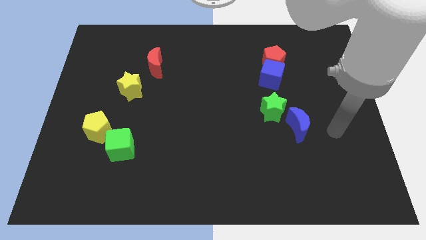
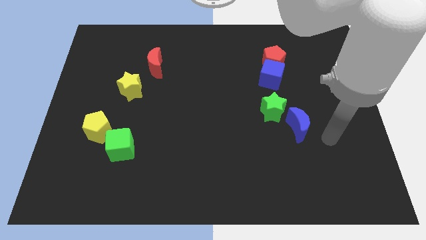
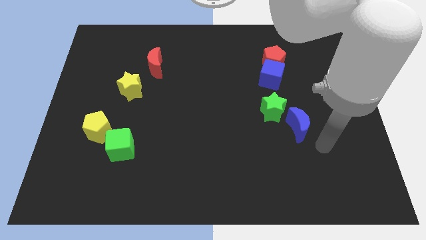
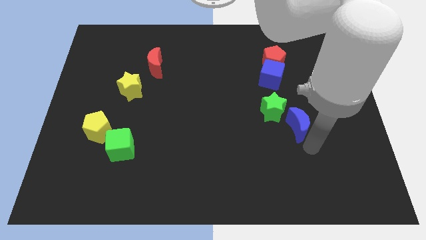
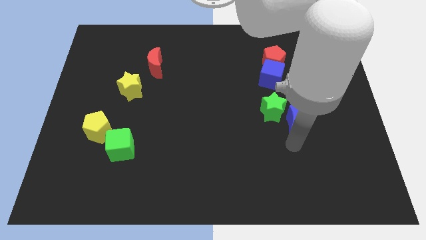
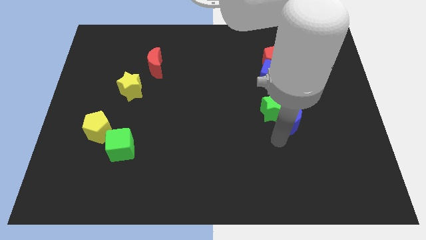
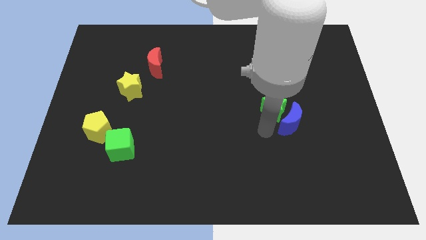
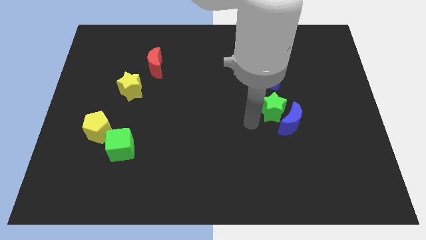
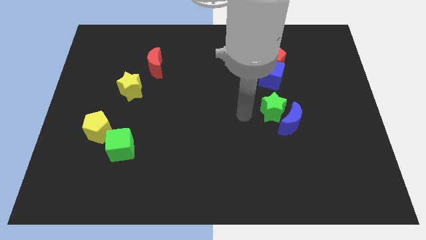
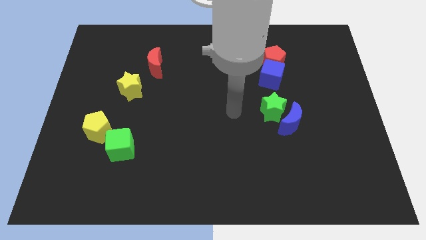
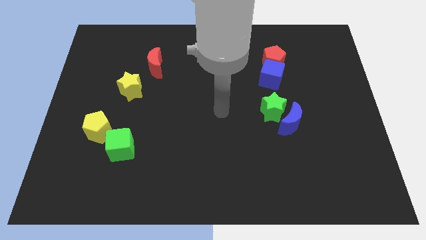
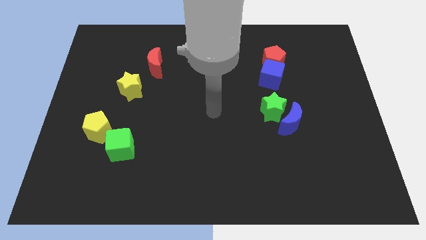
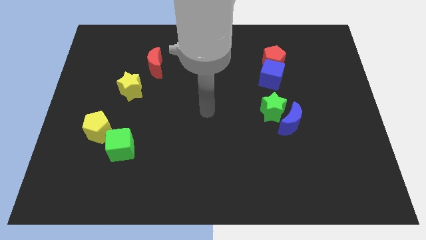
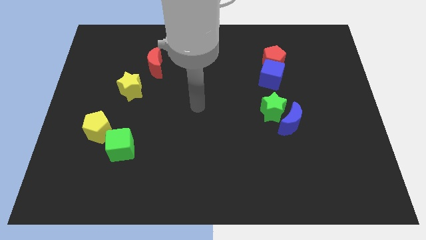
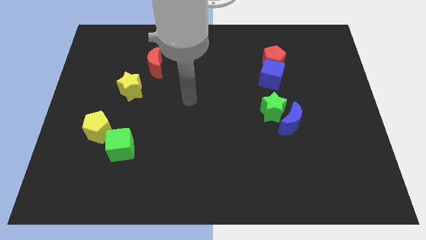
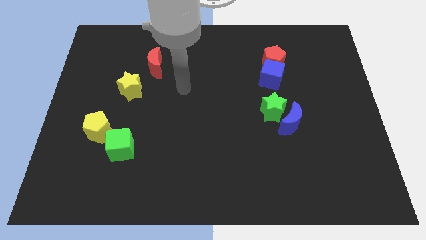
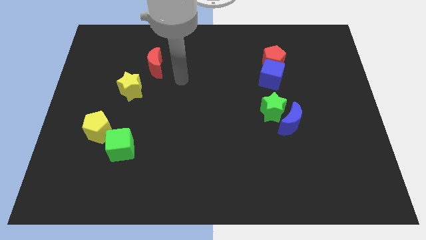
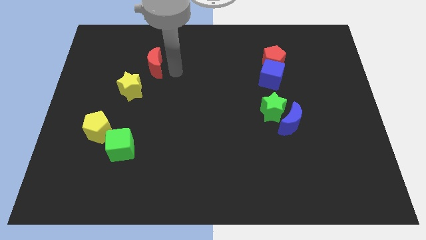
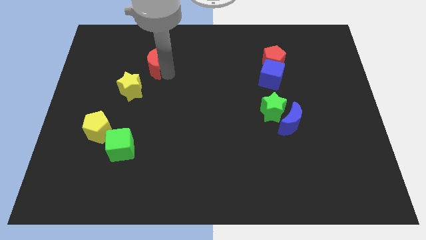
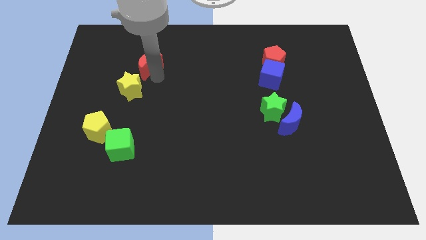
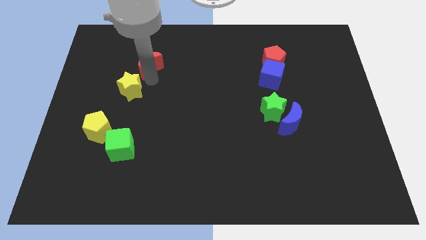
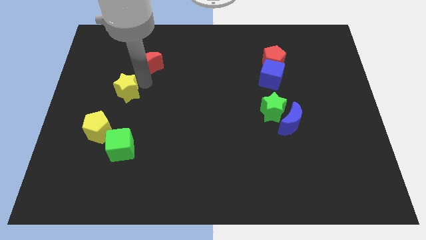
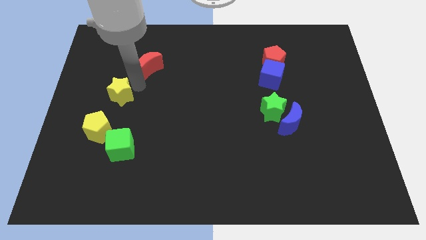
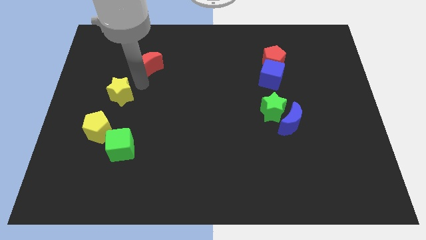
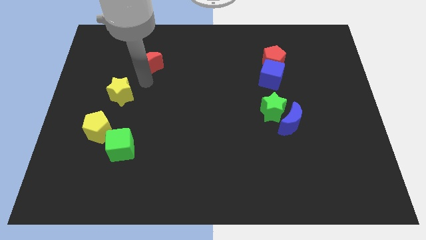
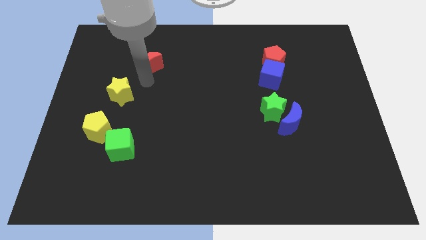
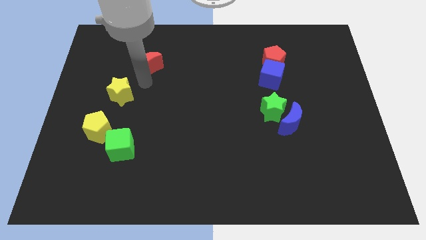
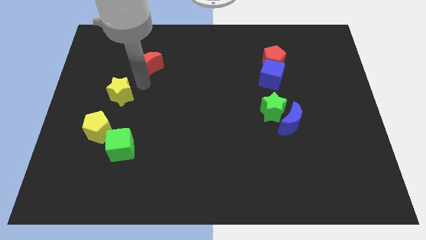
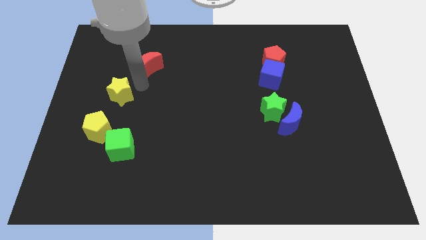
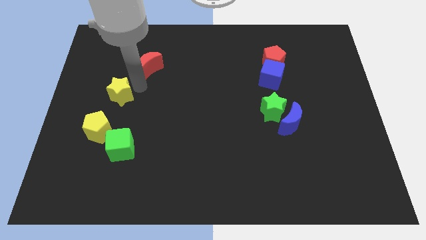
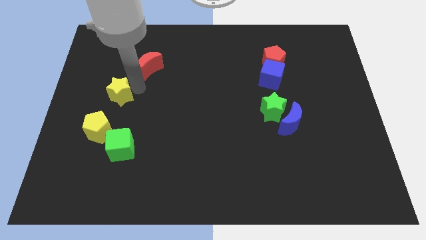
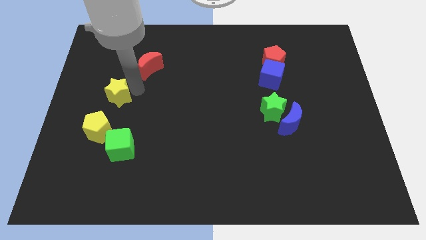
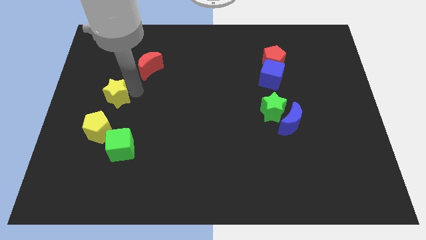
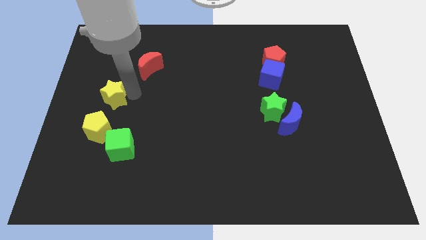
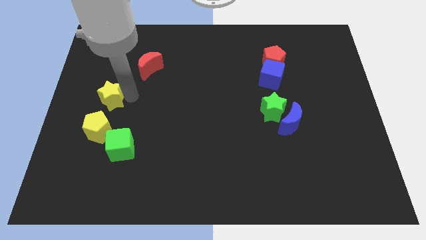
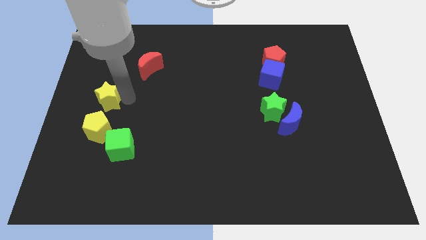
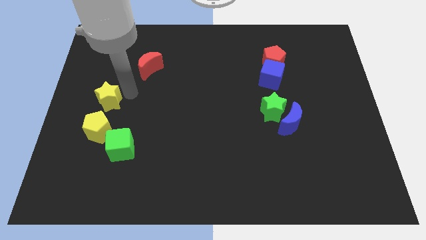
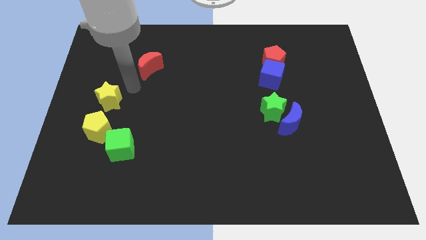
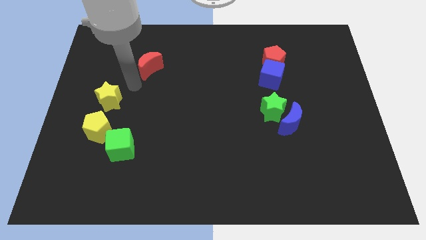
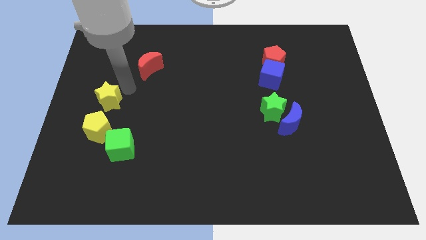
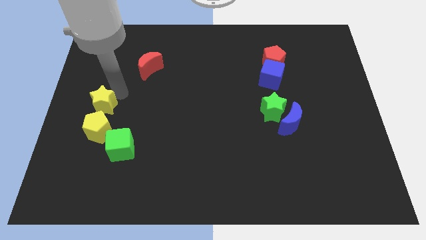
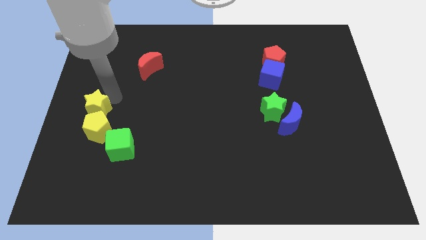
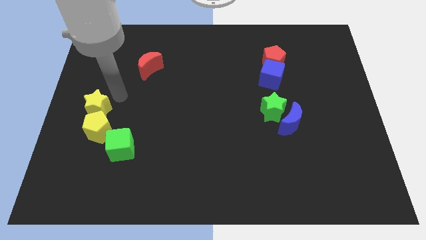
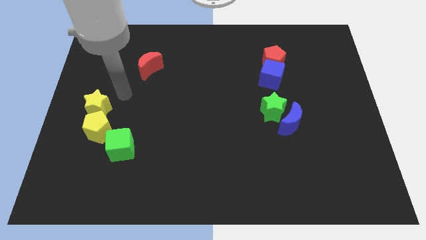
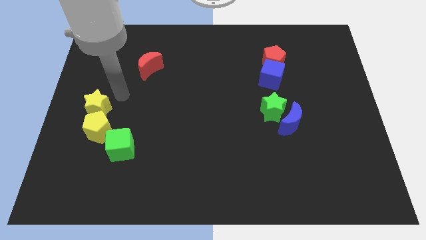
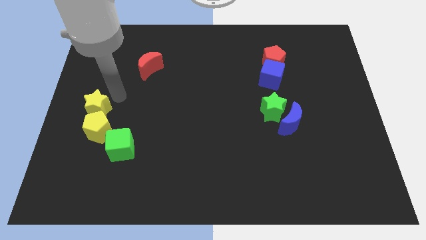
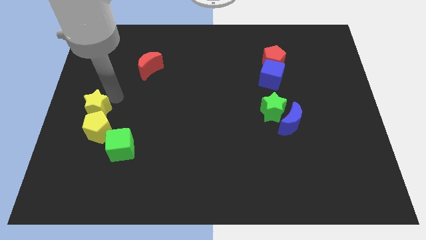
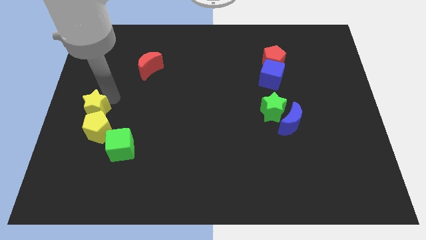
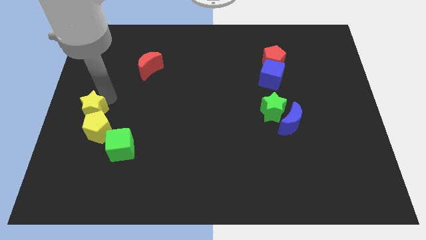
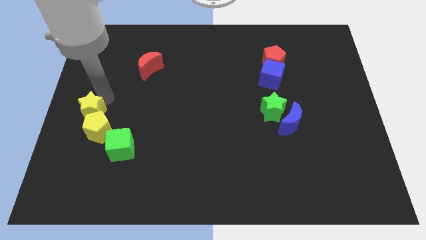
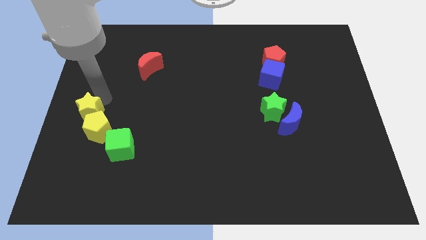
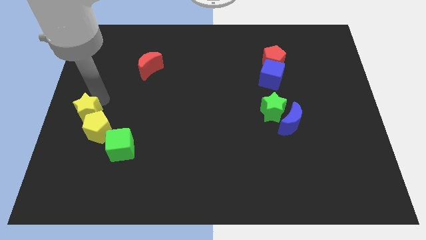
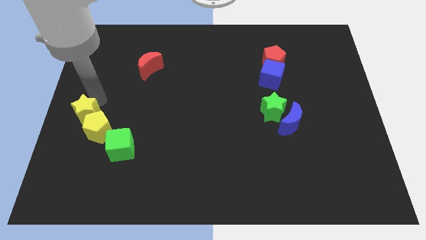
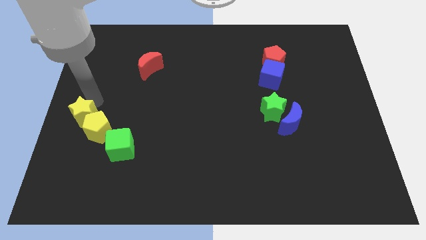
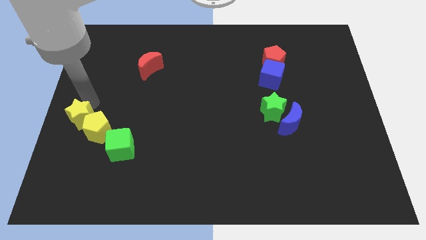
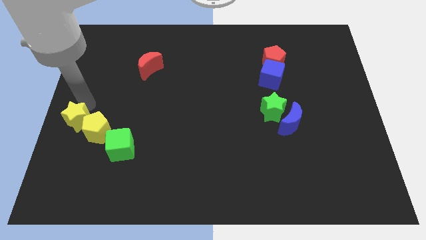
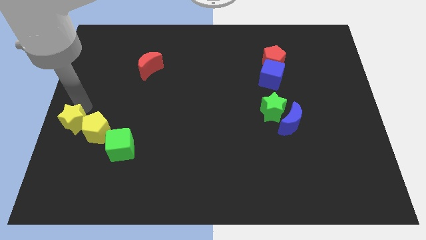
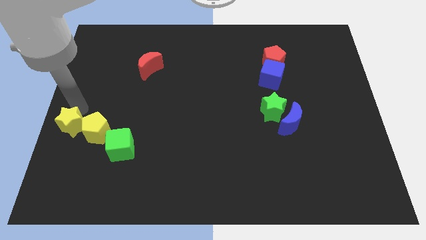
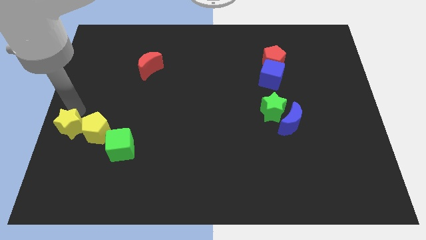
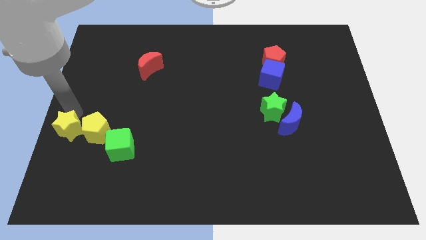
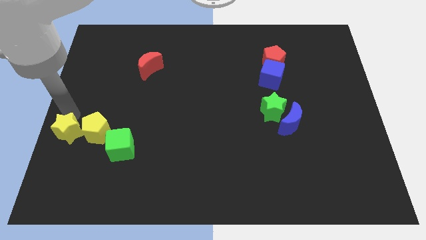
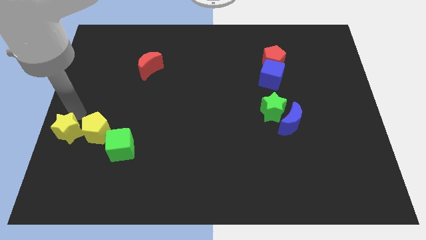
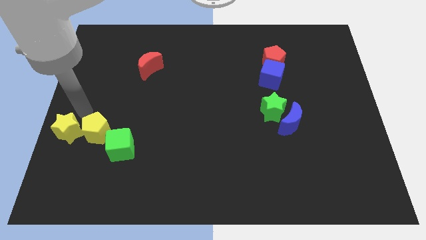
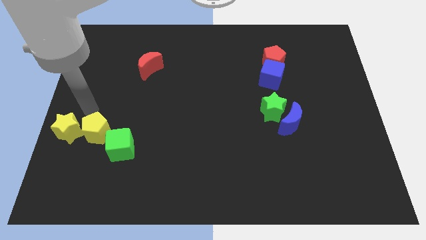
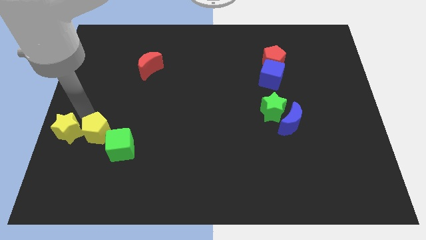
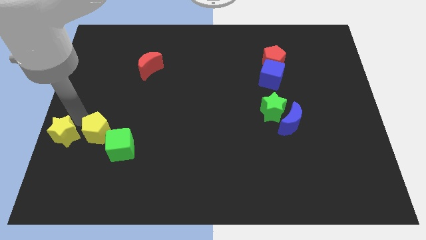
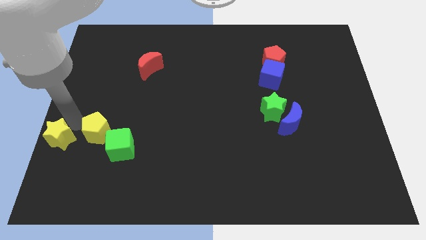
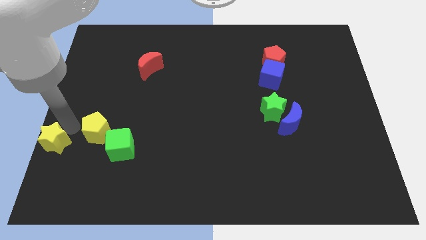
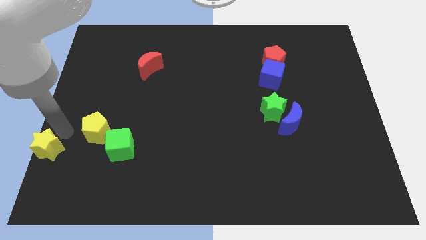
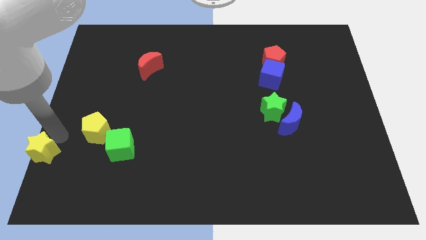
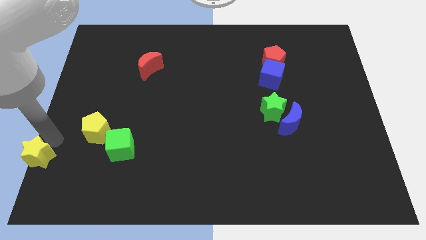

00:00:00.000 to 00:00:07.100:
move the yellow star to the bottom left
